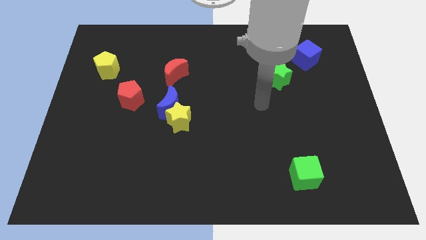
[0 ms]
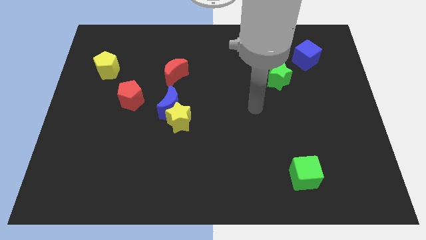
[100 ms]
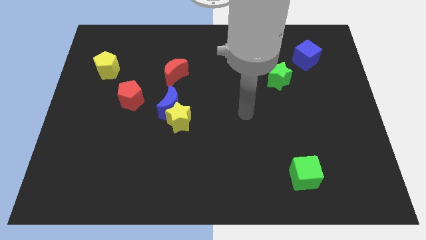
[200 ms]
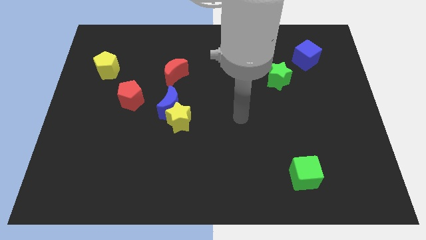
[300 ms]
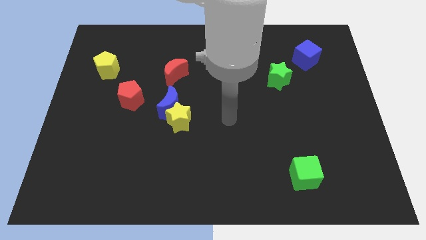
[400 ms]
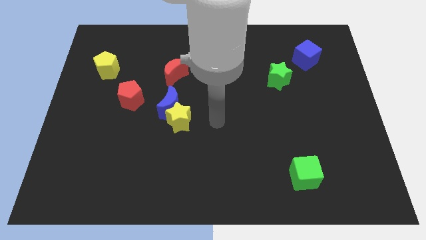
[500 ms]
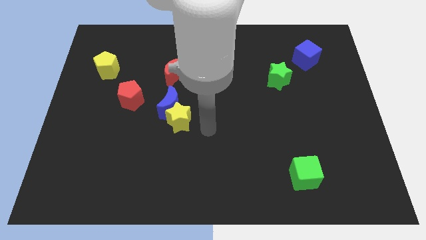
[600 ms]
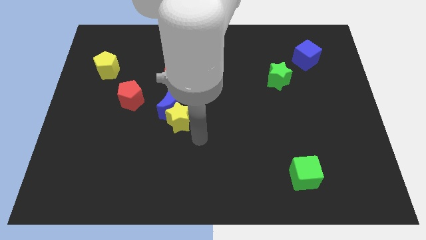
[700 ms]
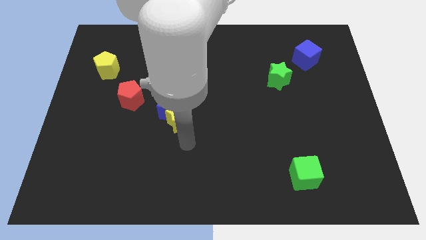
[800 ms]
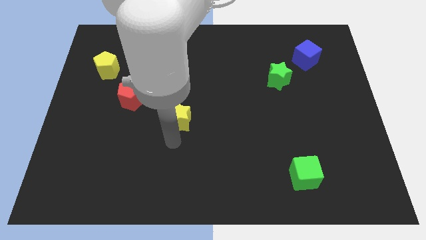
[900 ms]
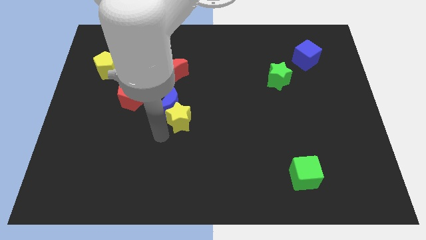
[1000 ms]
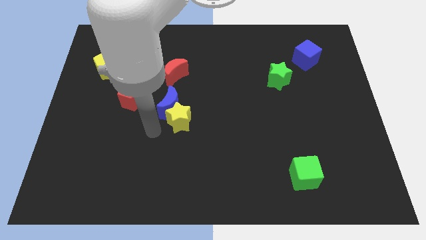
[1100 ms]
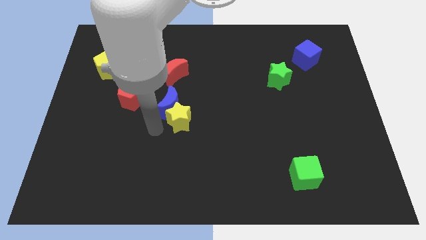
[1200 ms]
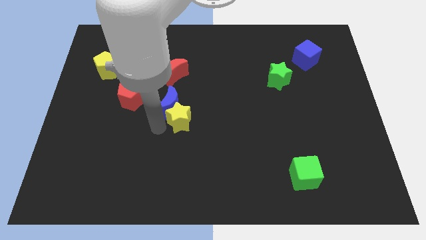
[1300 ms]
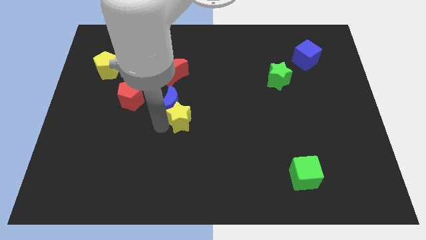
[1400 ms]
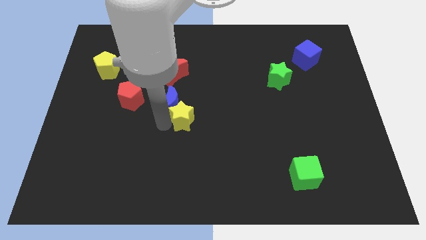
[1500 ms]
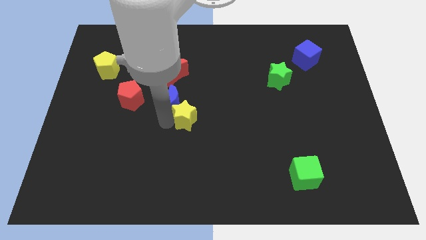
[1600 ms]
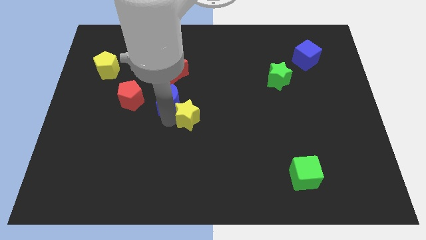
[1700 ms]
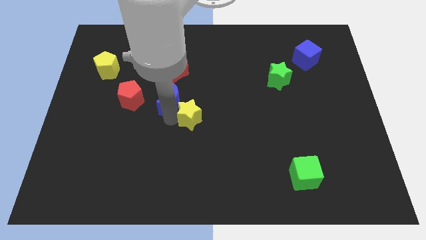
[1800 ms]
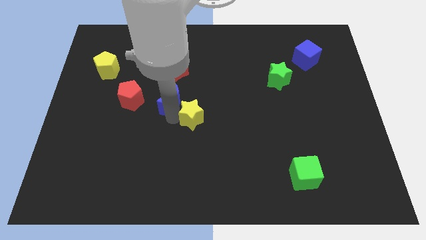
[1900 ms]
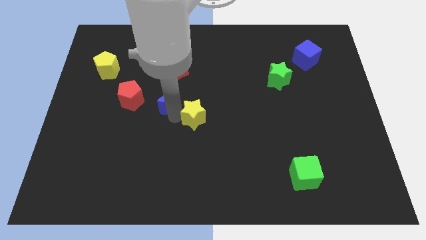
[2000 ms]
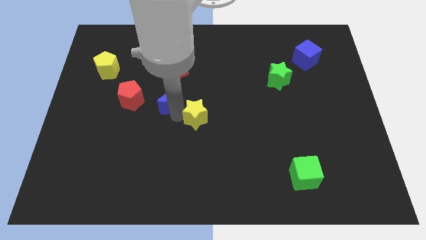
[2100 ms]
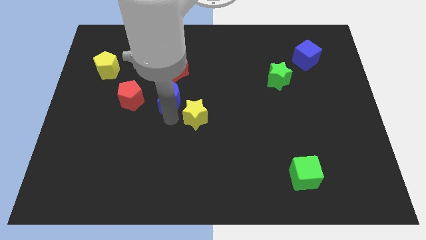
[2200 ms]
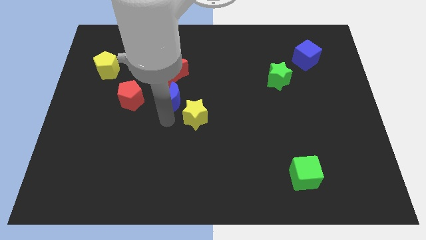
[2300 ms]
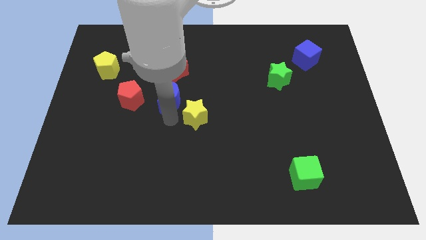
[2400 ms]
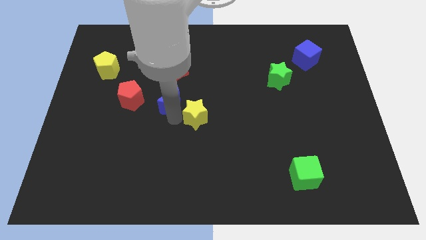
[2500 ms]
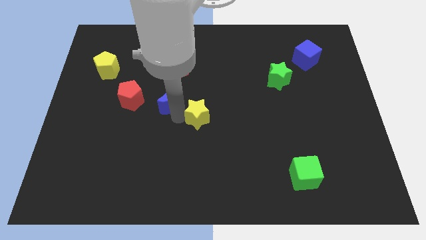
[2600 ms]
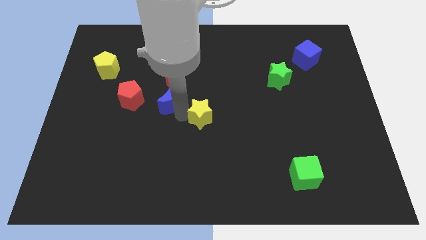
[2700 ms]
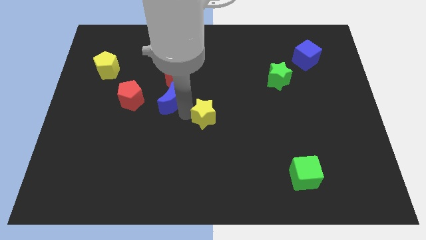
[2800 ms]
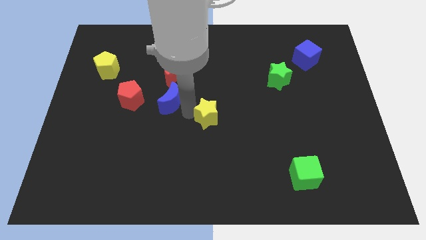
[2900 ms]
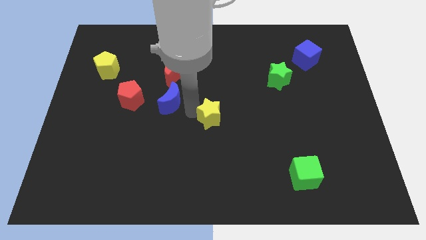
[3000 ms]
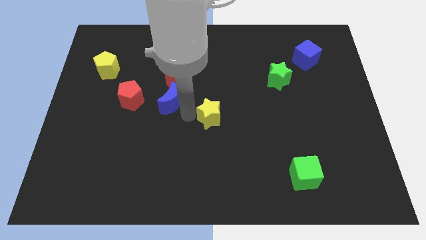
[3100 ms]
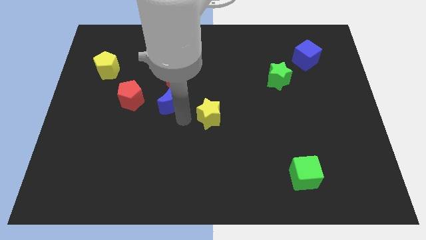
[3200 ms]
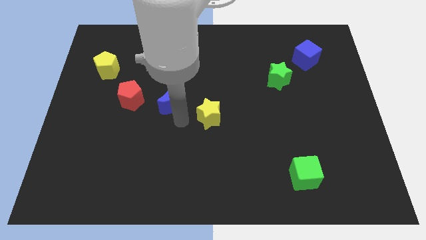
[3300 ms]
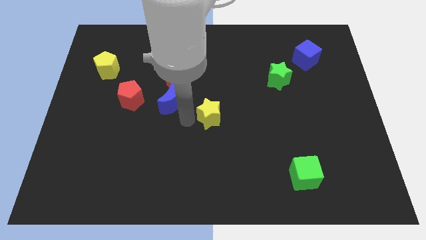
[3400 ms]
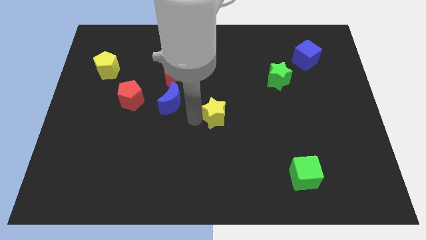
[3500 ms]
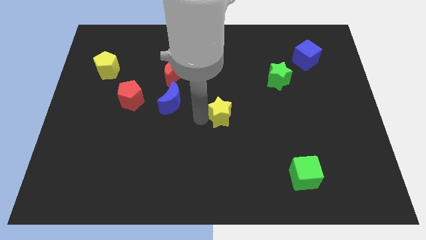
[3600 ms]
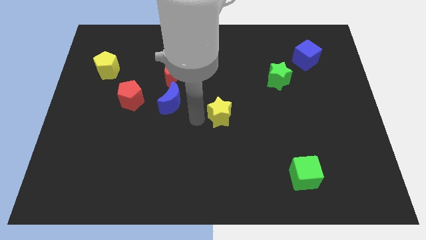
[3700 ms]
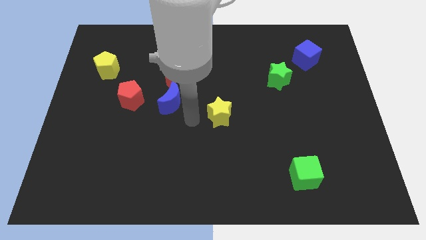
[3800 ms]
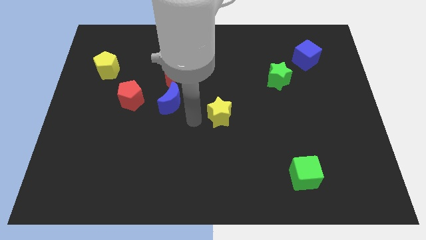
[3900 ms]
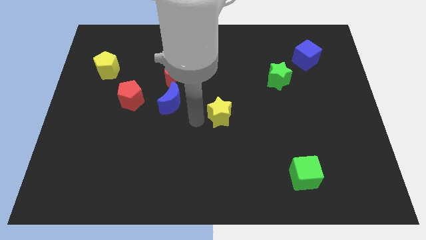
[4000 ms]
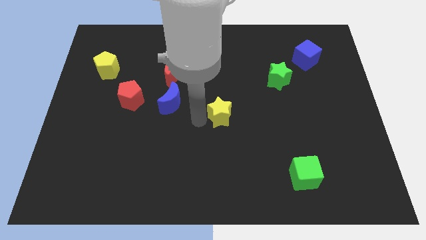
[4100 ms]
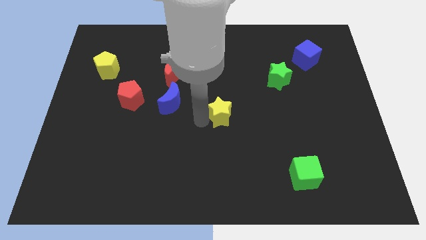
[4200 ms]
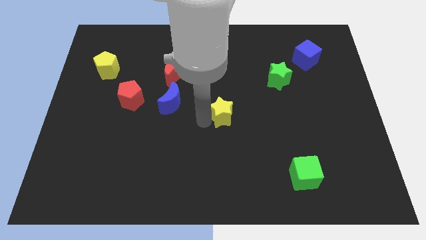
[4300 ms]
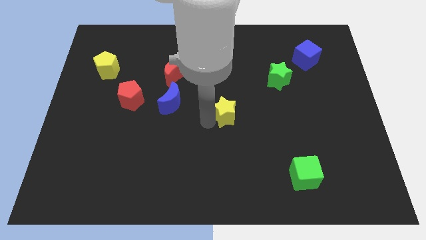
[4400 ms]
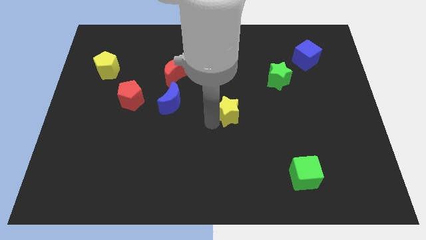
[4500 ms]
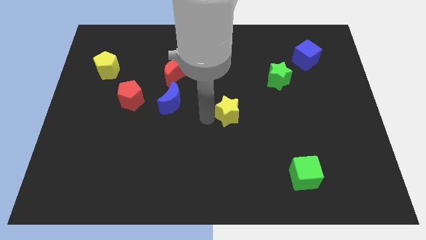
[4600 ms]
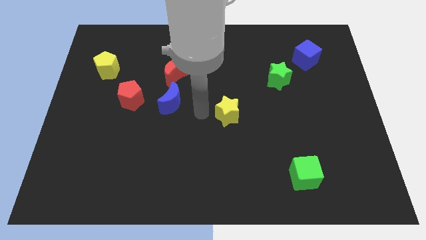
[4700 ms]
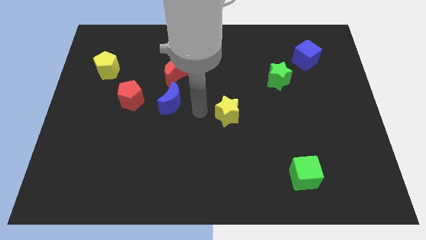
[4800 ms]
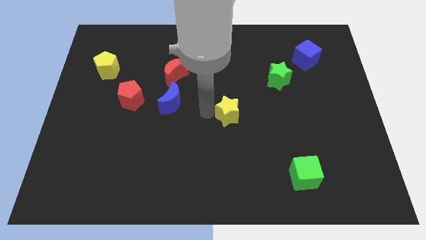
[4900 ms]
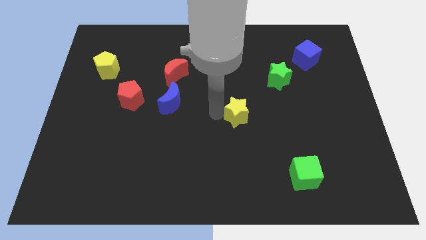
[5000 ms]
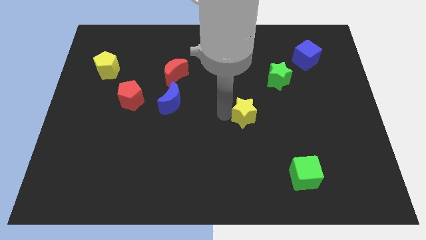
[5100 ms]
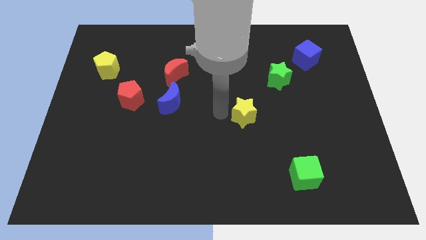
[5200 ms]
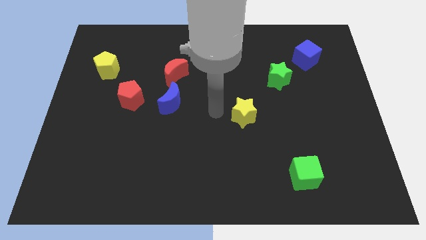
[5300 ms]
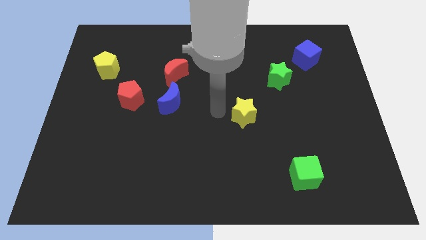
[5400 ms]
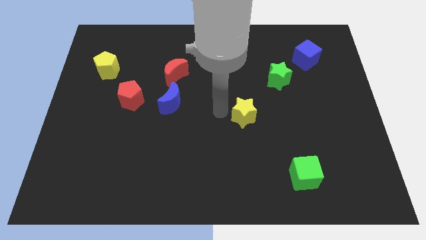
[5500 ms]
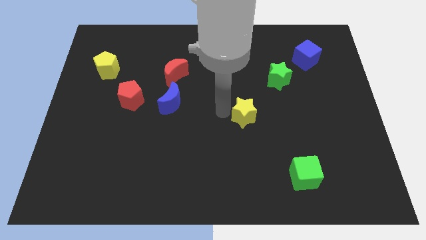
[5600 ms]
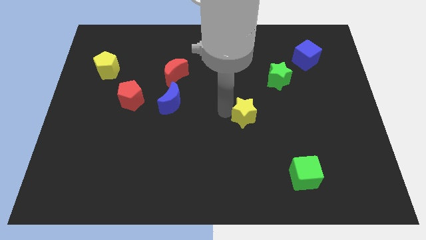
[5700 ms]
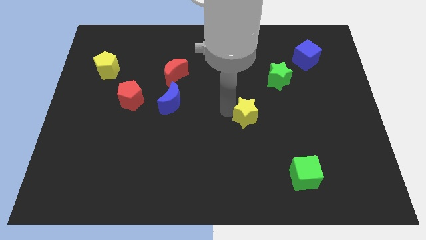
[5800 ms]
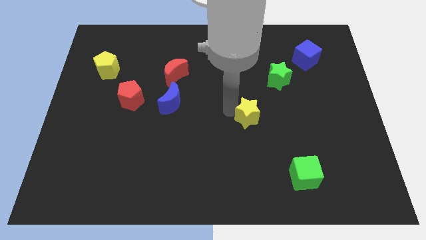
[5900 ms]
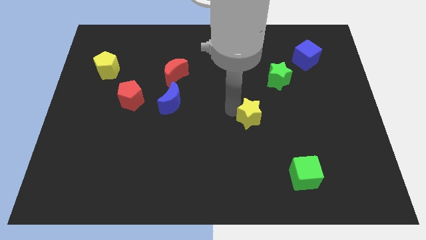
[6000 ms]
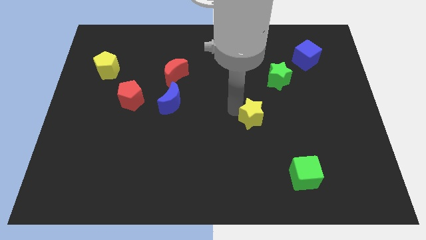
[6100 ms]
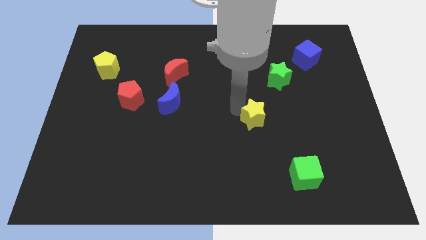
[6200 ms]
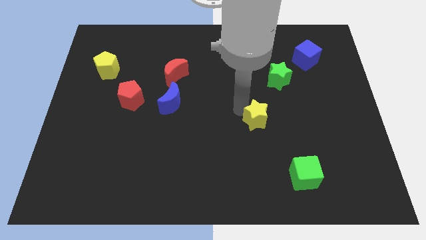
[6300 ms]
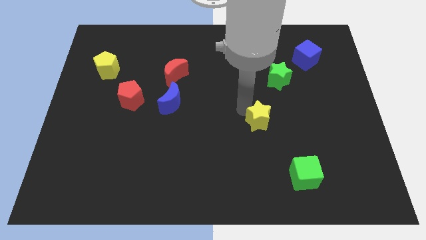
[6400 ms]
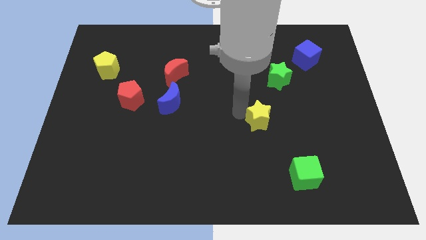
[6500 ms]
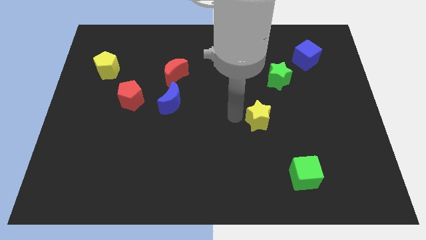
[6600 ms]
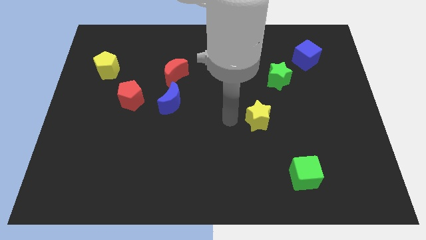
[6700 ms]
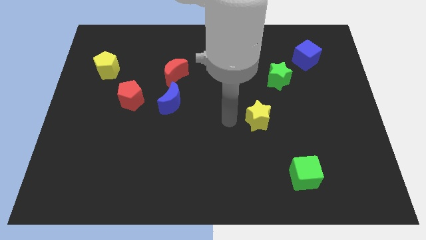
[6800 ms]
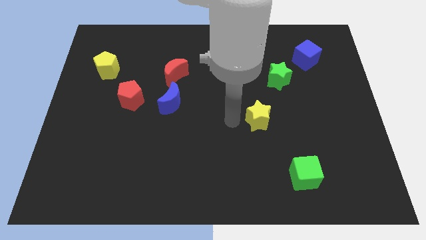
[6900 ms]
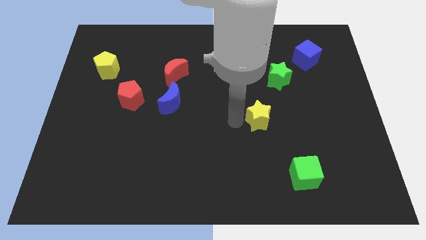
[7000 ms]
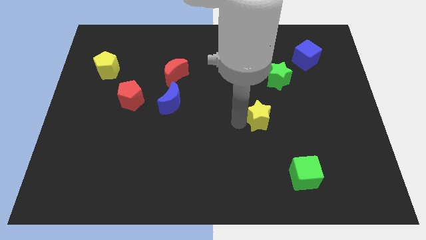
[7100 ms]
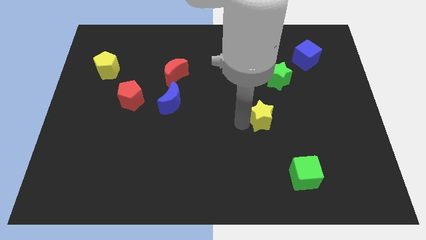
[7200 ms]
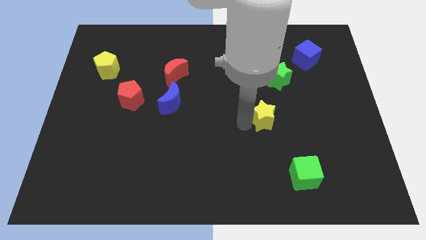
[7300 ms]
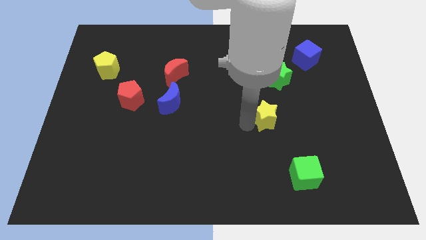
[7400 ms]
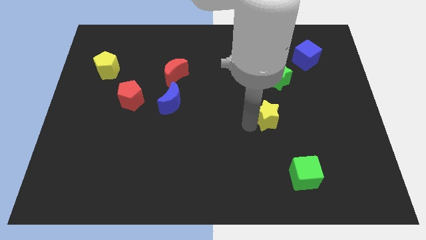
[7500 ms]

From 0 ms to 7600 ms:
slide the yellow star right

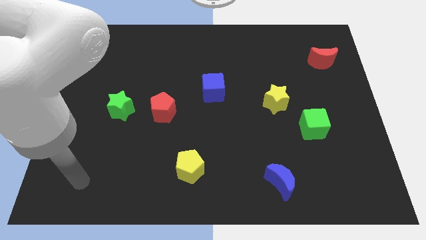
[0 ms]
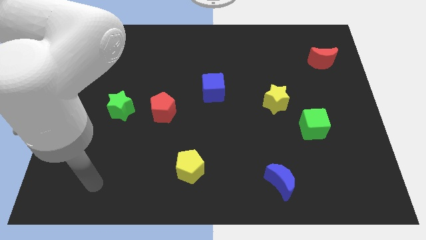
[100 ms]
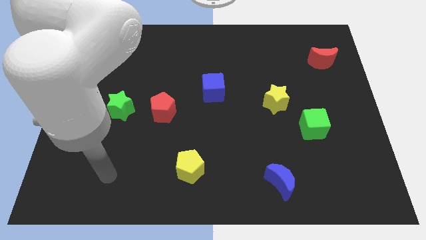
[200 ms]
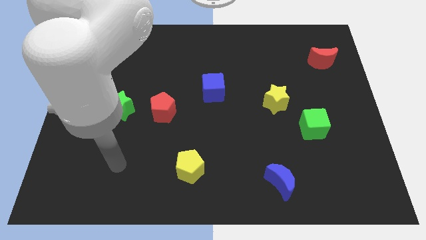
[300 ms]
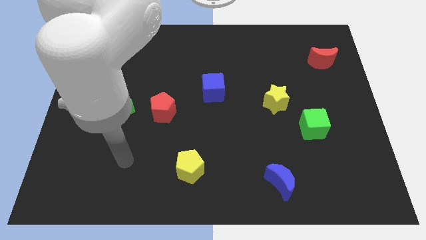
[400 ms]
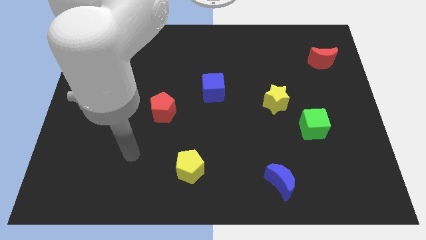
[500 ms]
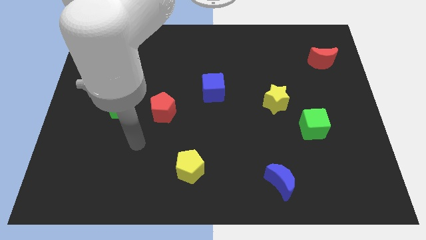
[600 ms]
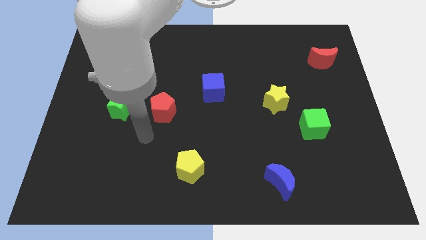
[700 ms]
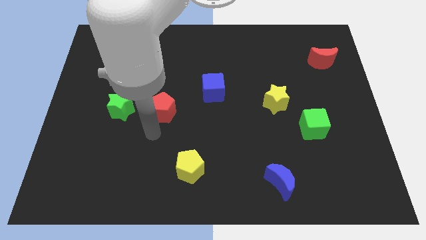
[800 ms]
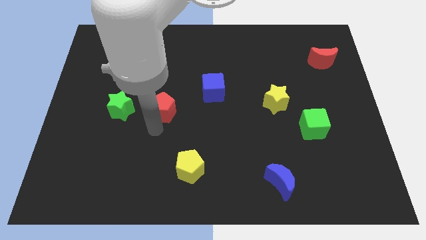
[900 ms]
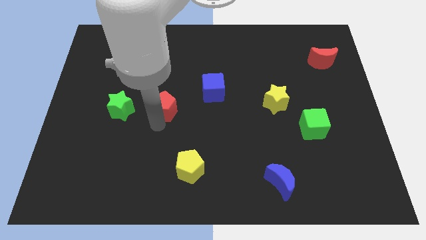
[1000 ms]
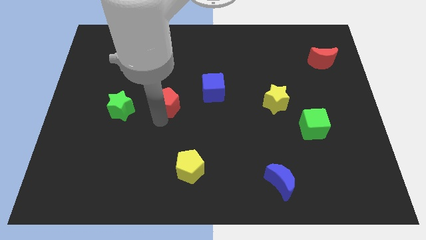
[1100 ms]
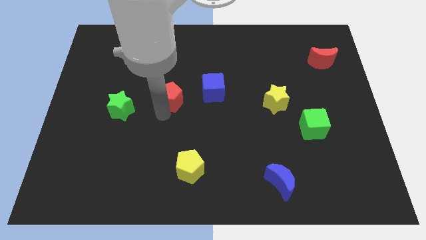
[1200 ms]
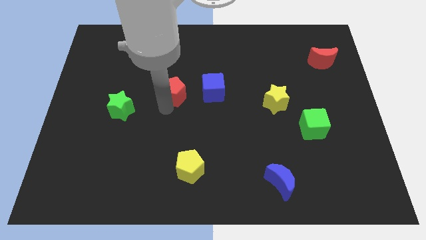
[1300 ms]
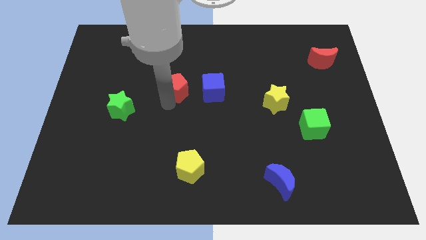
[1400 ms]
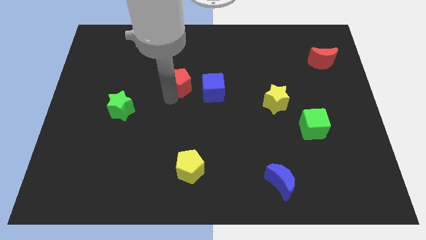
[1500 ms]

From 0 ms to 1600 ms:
move the red pentagon diagonally upwards and to the right a bit
